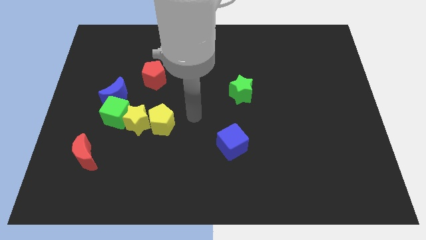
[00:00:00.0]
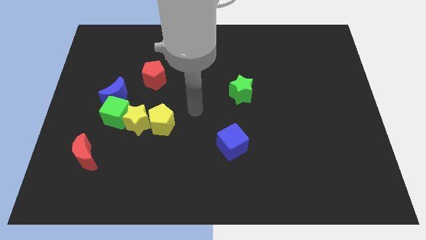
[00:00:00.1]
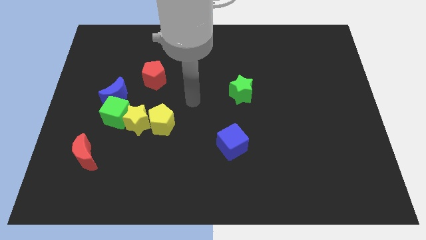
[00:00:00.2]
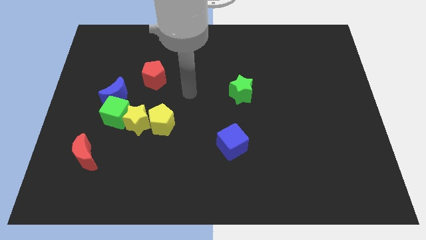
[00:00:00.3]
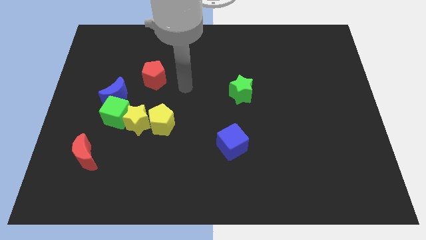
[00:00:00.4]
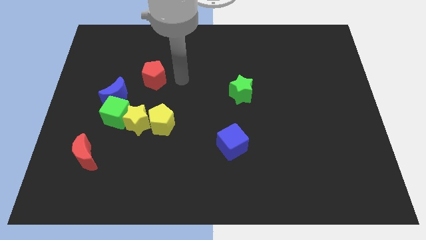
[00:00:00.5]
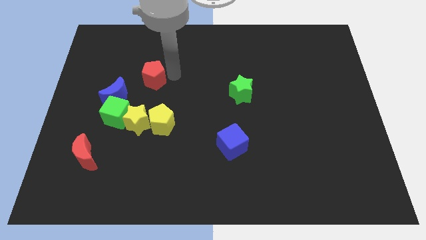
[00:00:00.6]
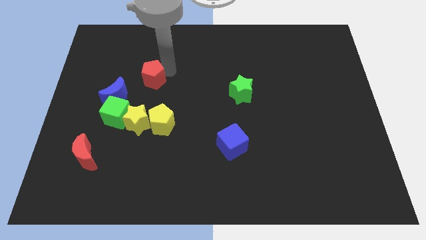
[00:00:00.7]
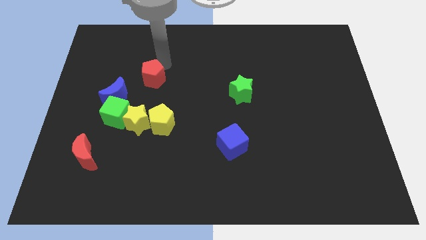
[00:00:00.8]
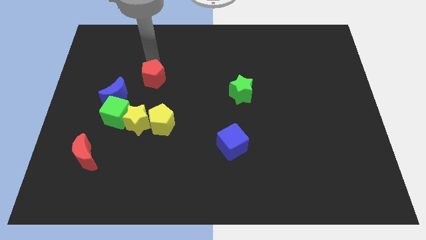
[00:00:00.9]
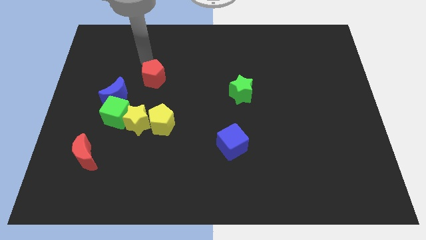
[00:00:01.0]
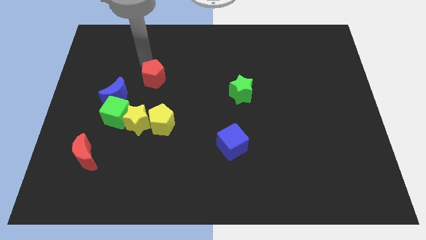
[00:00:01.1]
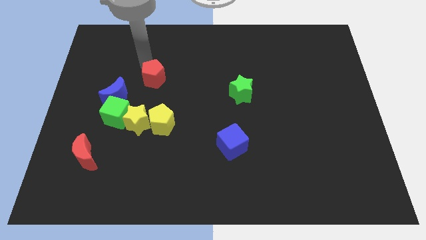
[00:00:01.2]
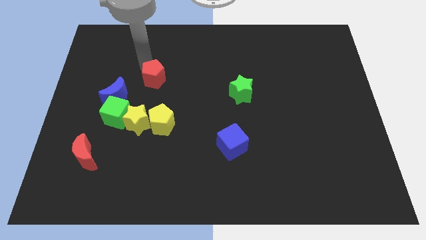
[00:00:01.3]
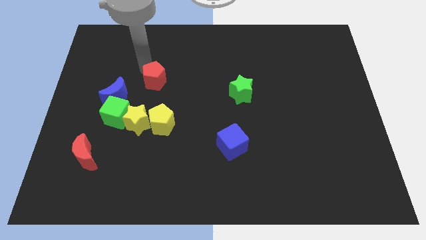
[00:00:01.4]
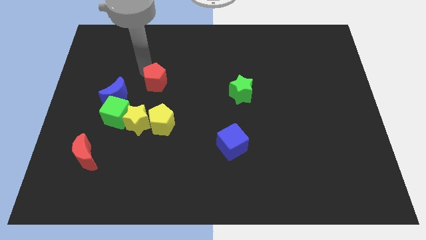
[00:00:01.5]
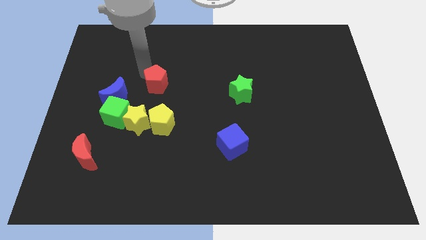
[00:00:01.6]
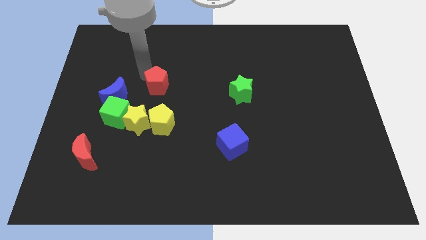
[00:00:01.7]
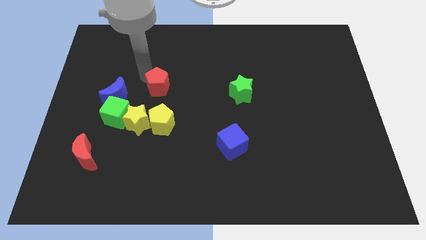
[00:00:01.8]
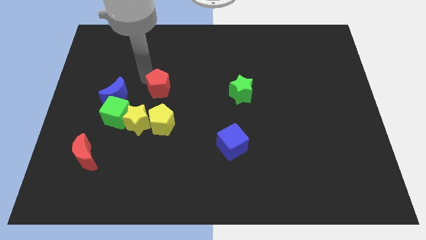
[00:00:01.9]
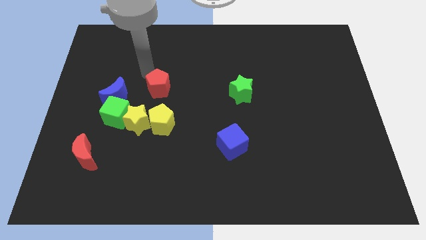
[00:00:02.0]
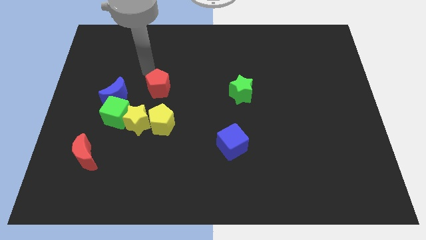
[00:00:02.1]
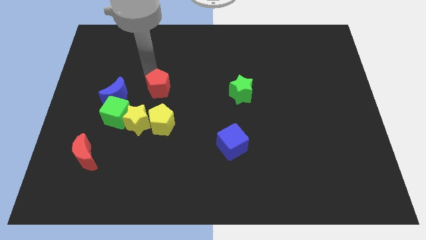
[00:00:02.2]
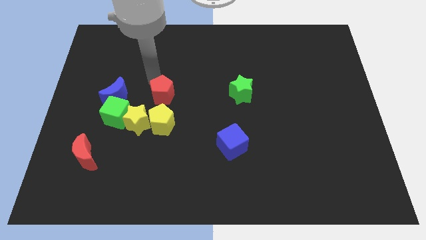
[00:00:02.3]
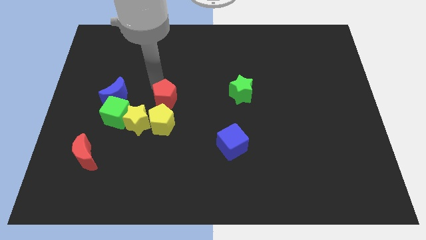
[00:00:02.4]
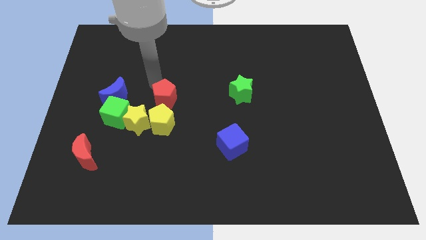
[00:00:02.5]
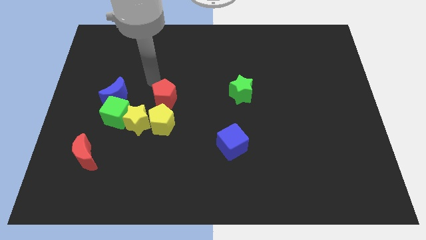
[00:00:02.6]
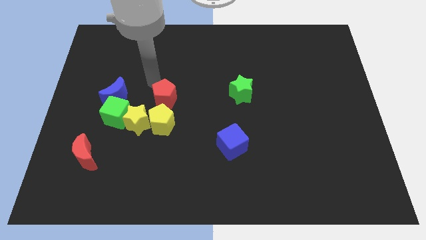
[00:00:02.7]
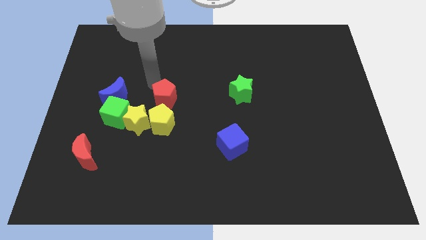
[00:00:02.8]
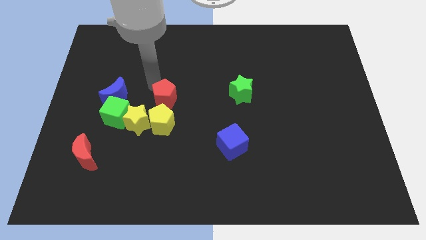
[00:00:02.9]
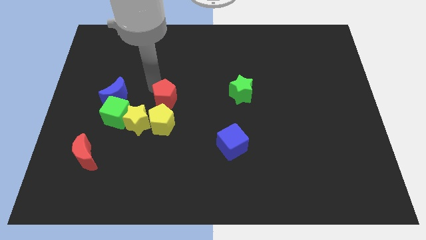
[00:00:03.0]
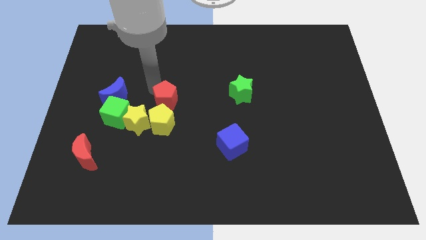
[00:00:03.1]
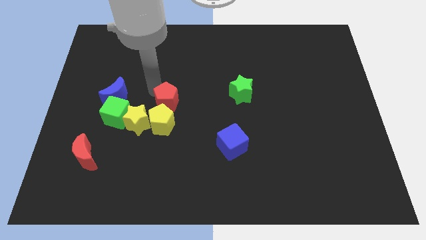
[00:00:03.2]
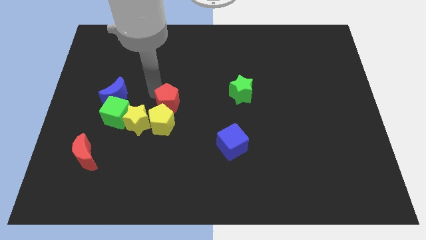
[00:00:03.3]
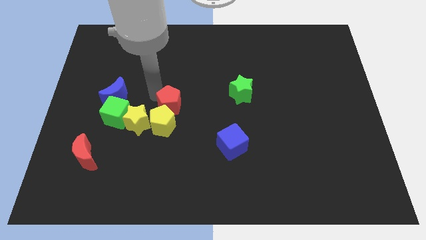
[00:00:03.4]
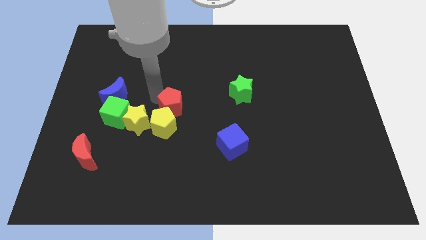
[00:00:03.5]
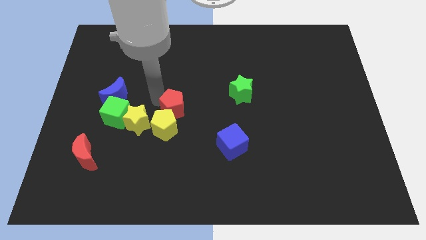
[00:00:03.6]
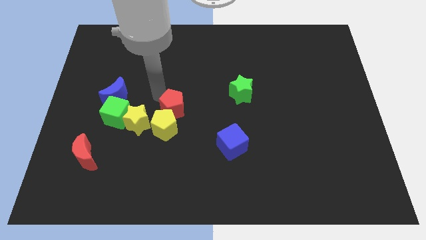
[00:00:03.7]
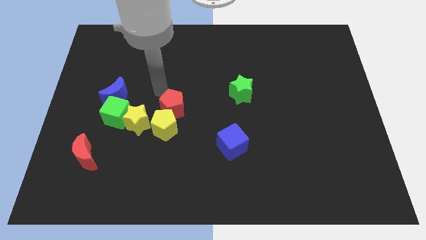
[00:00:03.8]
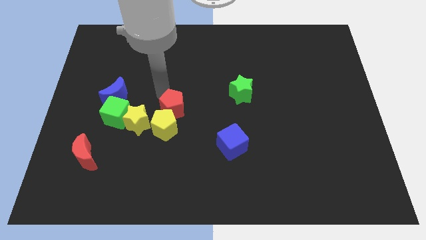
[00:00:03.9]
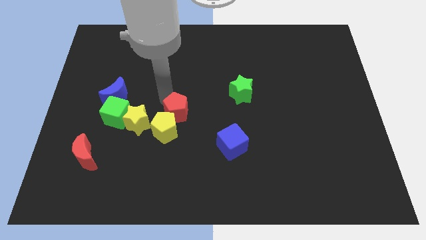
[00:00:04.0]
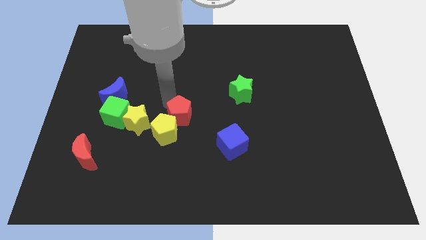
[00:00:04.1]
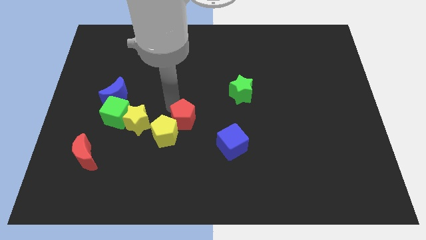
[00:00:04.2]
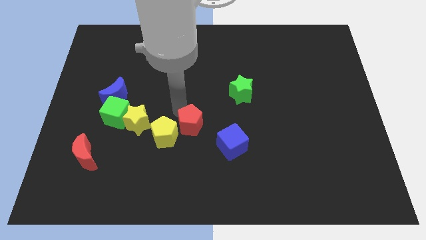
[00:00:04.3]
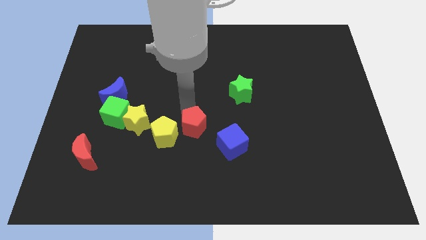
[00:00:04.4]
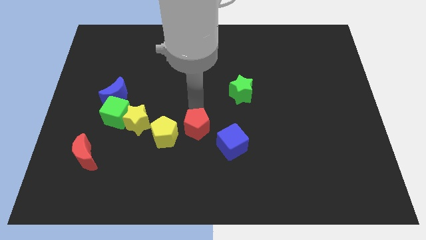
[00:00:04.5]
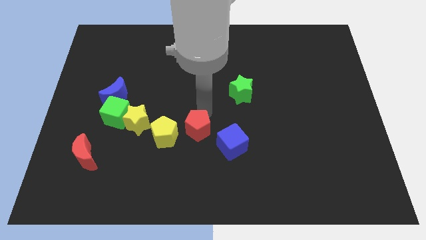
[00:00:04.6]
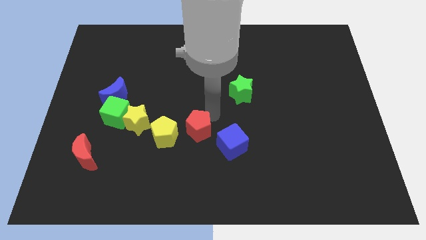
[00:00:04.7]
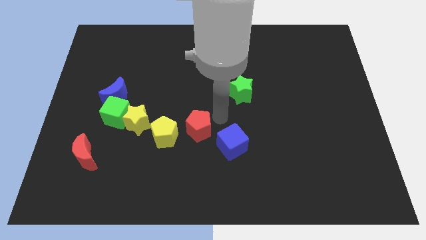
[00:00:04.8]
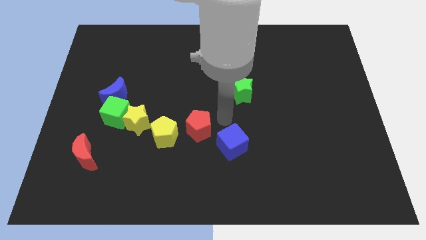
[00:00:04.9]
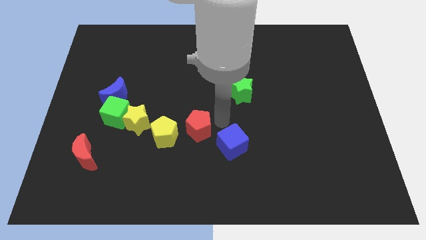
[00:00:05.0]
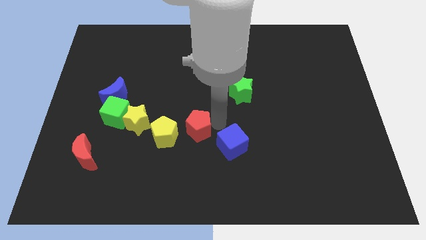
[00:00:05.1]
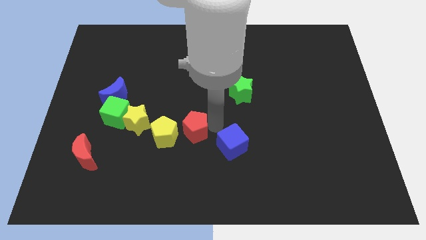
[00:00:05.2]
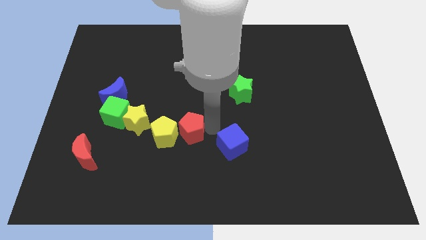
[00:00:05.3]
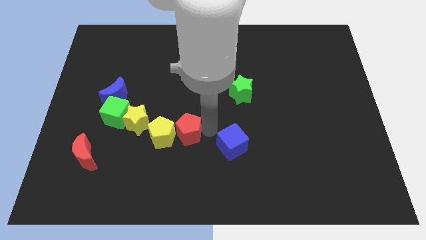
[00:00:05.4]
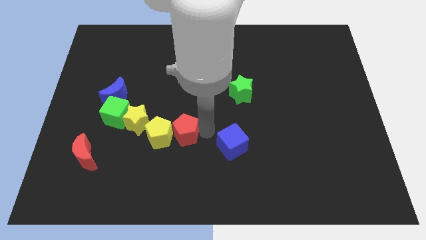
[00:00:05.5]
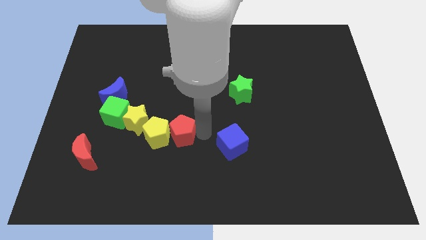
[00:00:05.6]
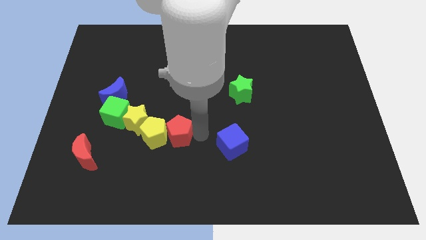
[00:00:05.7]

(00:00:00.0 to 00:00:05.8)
put the red pentagon to the bottom right of the yellow star
